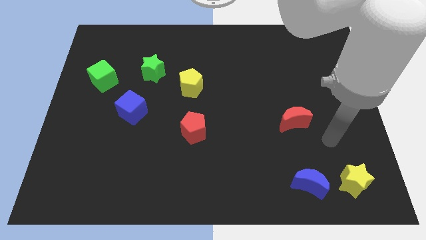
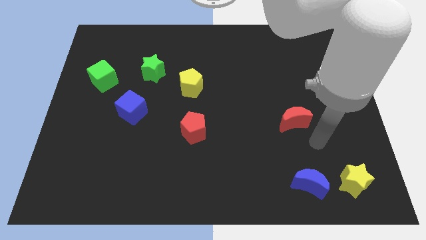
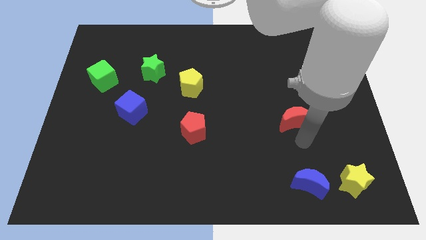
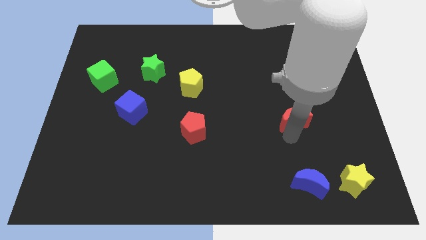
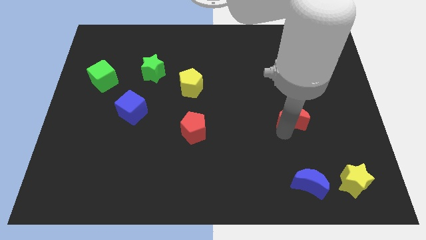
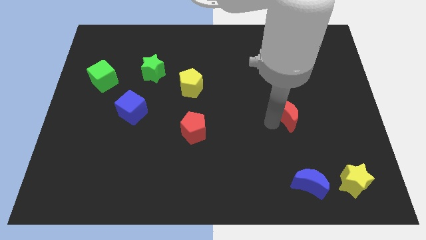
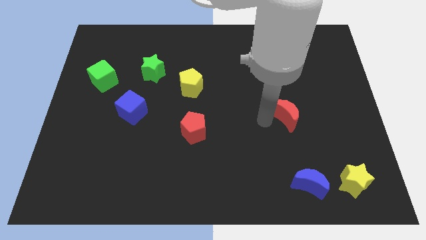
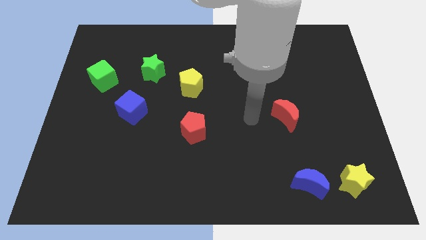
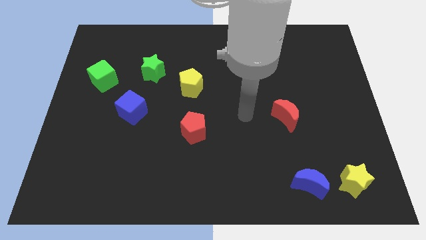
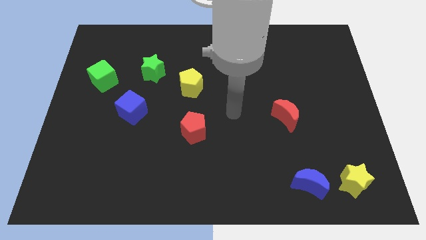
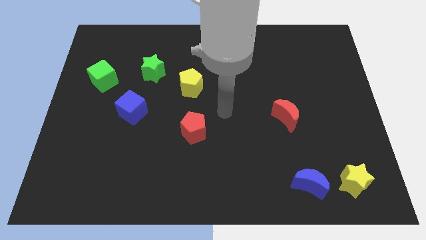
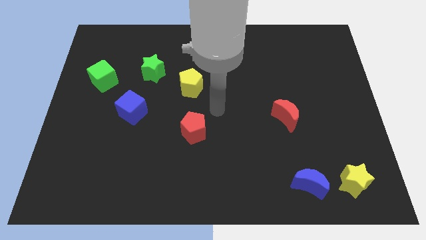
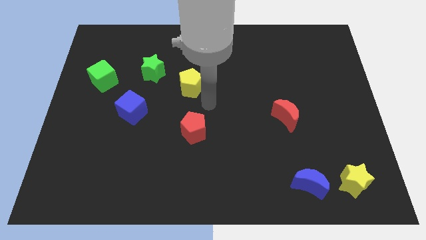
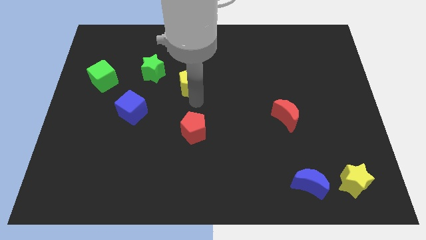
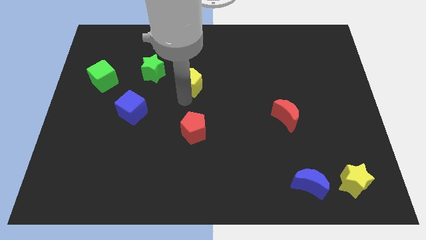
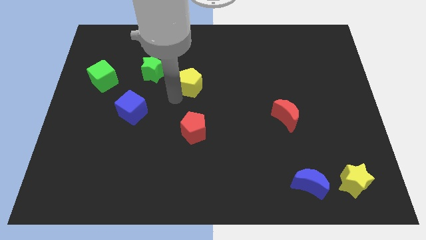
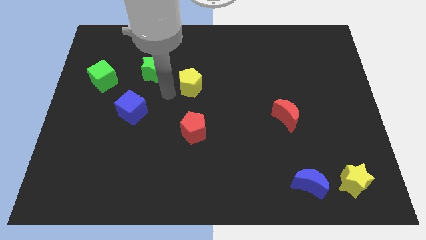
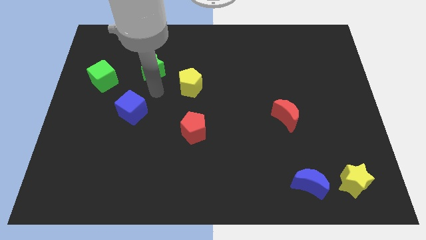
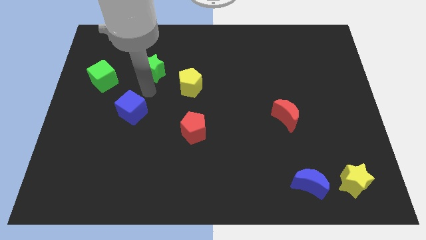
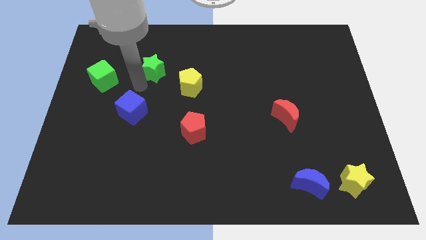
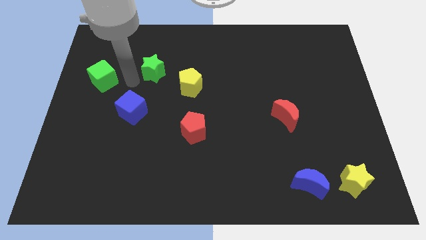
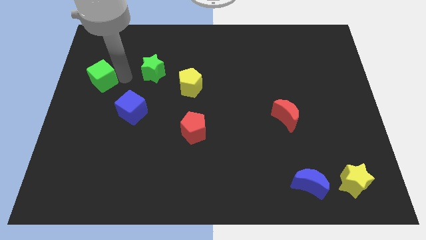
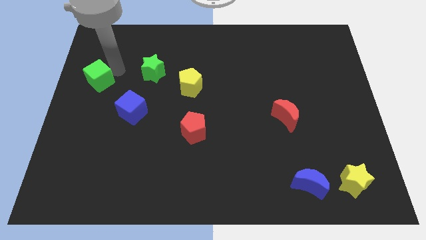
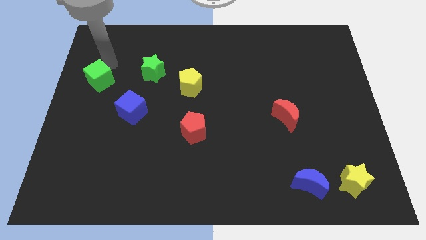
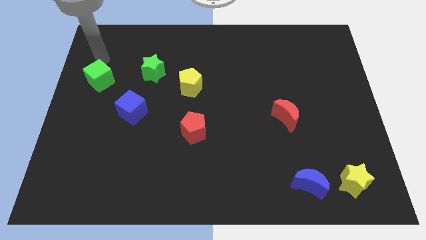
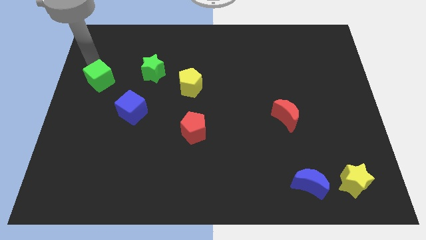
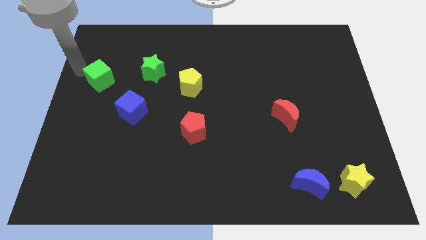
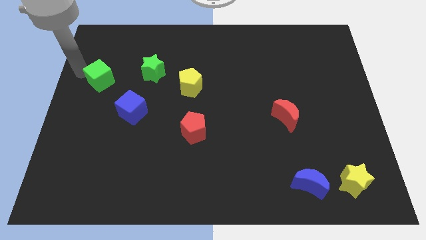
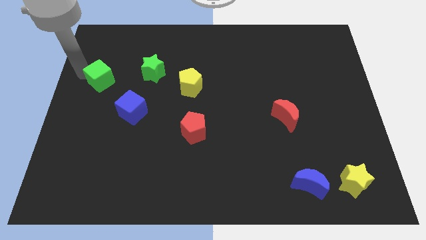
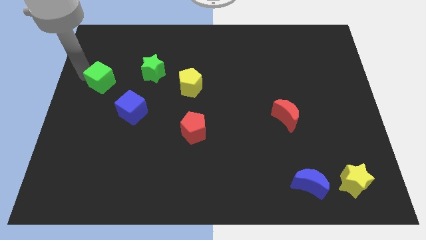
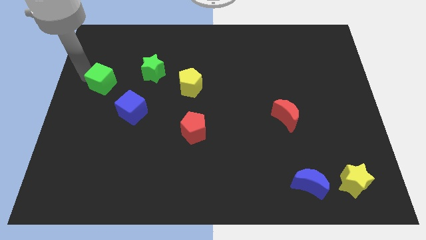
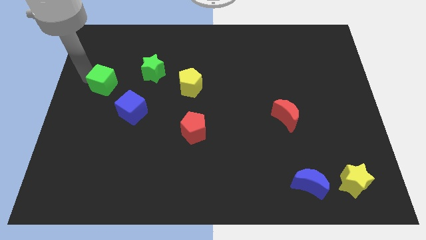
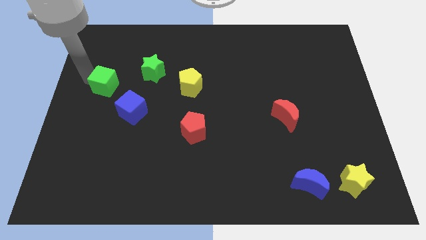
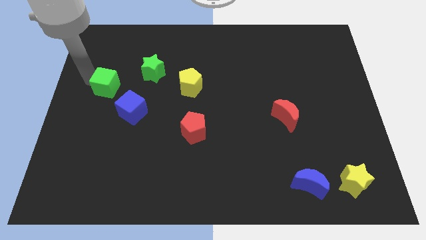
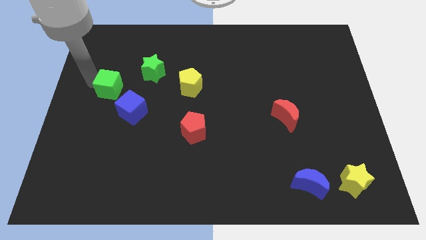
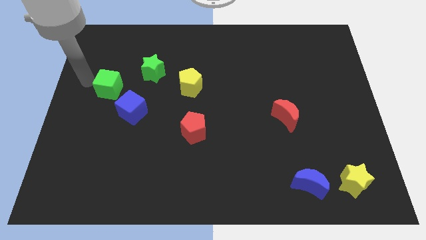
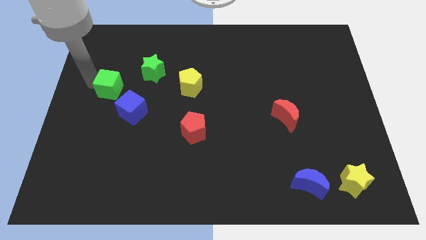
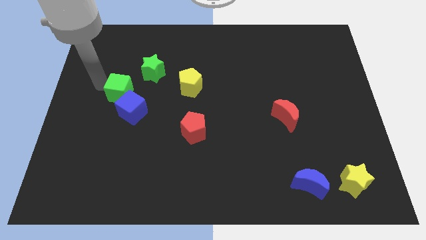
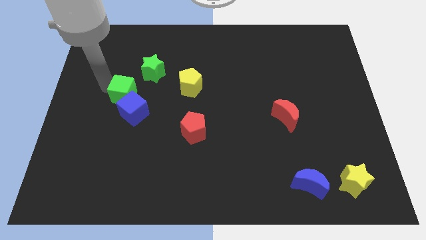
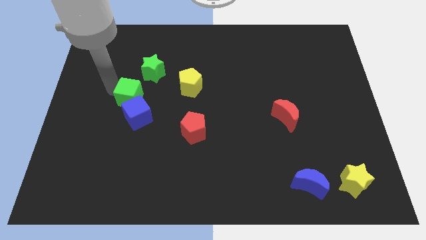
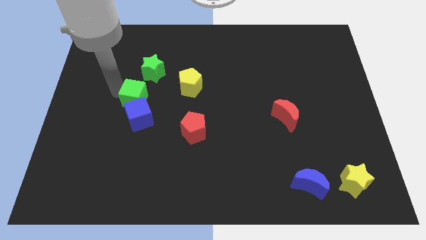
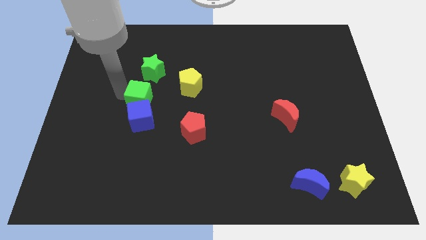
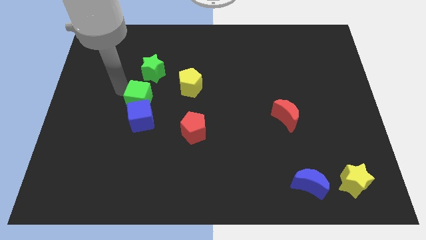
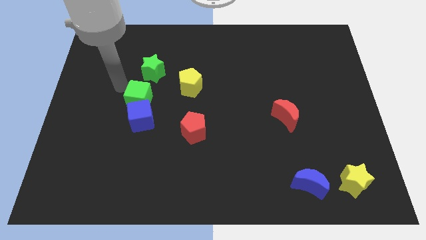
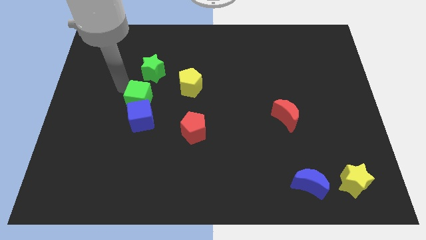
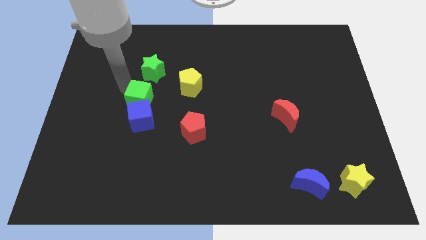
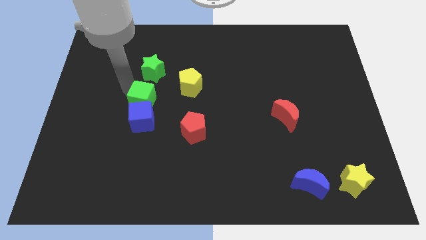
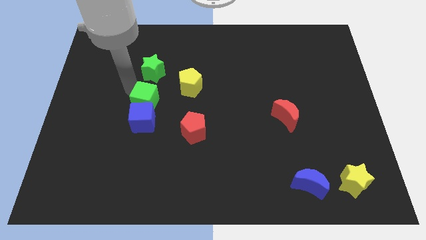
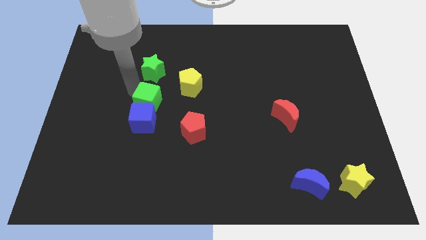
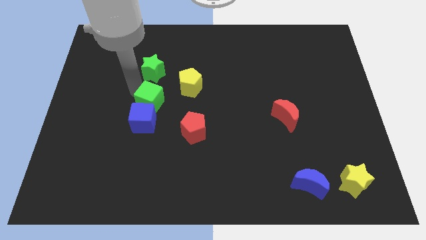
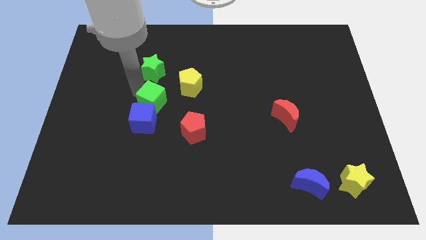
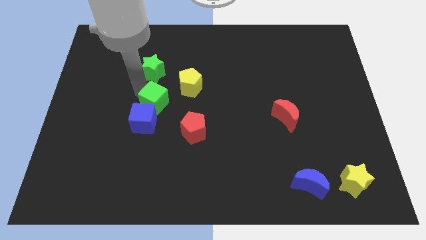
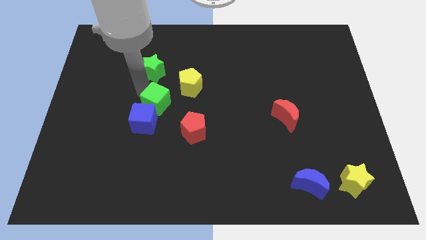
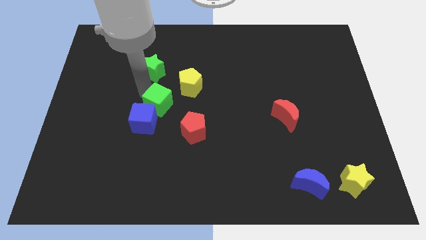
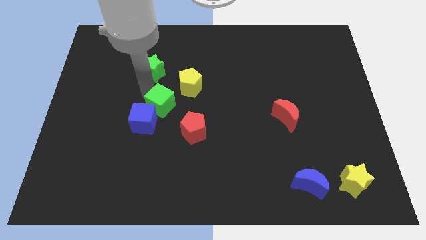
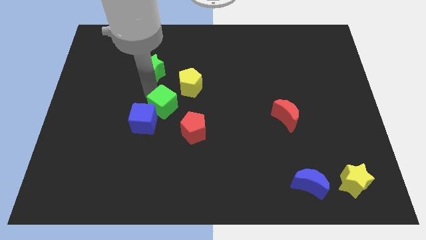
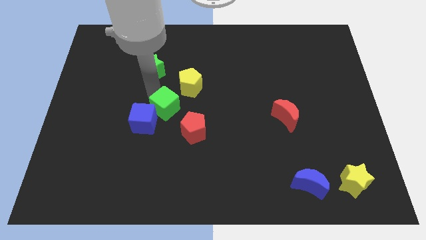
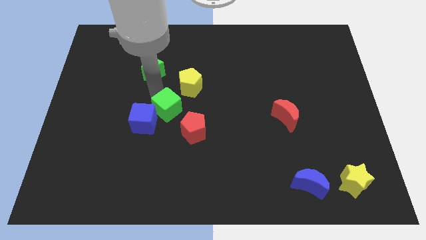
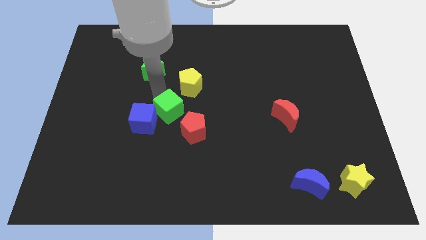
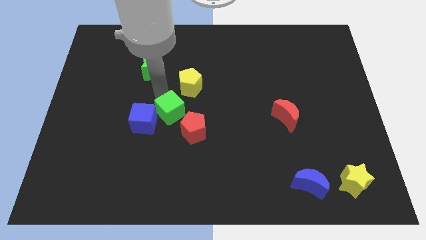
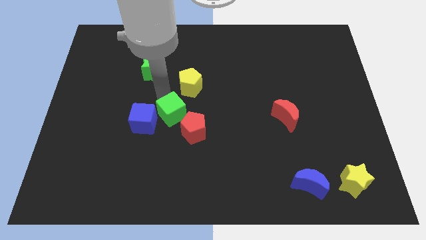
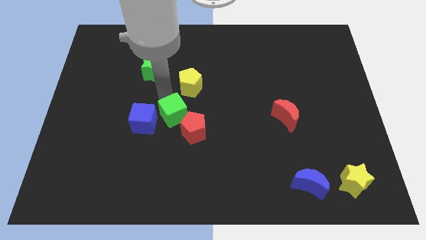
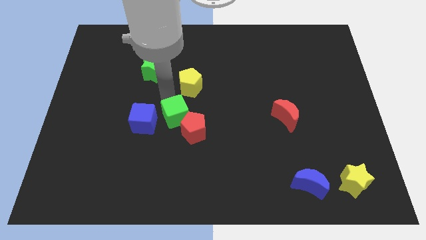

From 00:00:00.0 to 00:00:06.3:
slide the green cube to the red pentagon
